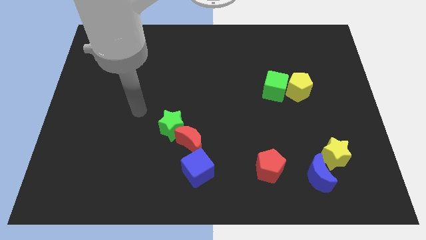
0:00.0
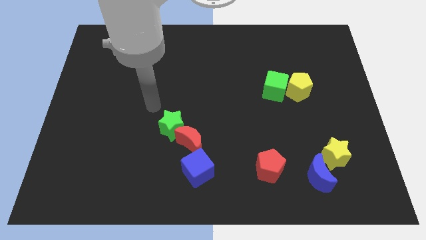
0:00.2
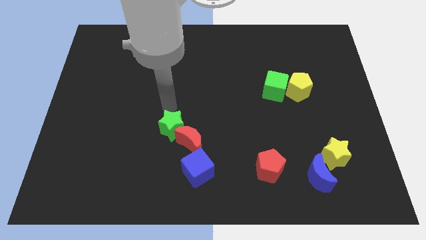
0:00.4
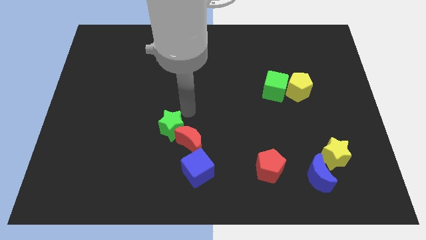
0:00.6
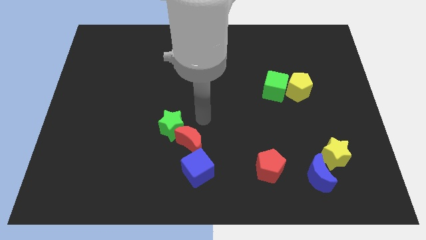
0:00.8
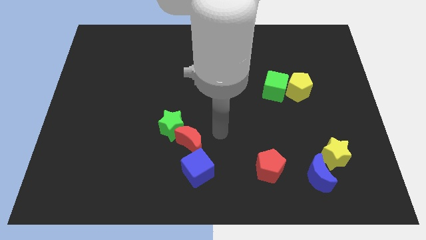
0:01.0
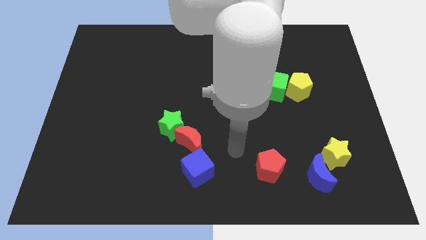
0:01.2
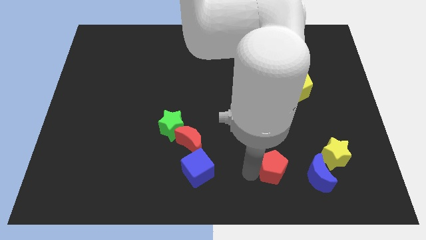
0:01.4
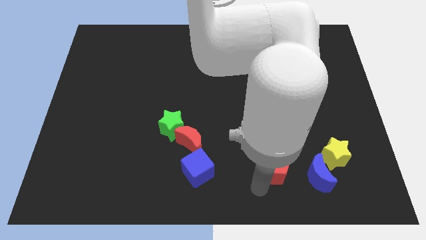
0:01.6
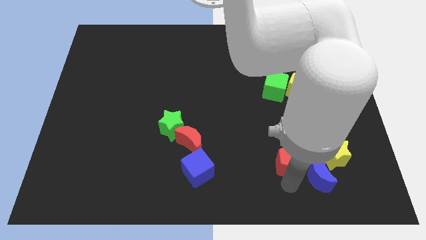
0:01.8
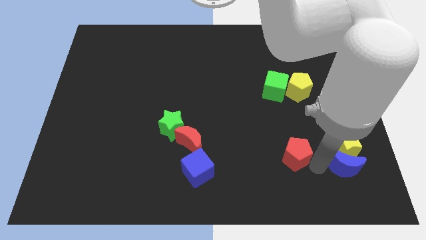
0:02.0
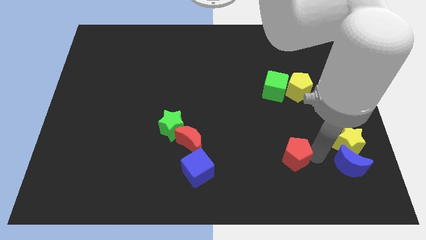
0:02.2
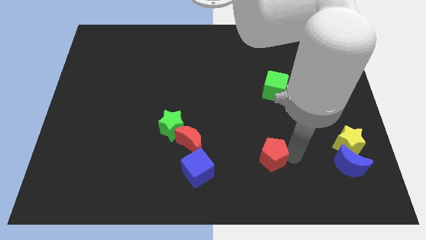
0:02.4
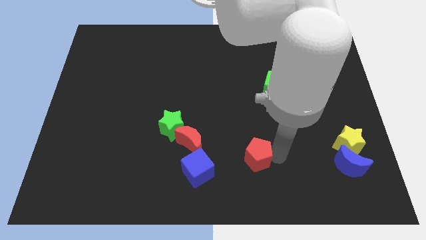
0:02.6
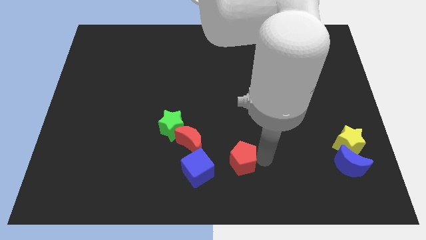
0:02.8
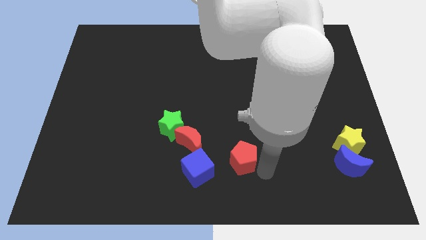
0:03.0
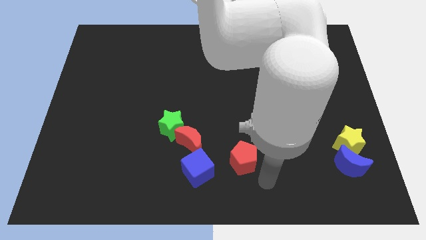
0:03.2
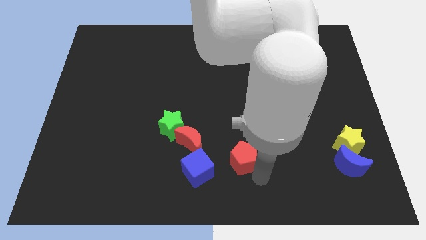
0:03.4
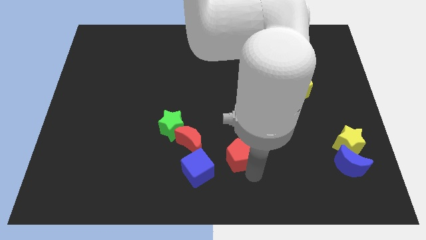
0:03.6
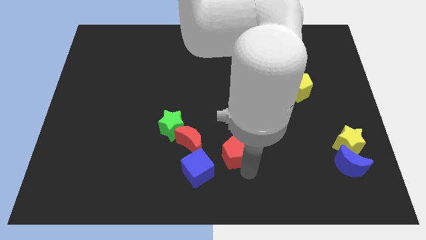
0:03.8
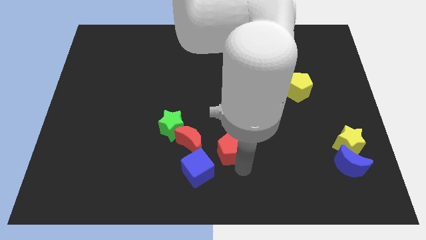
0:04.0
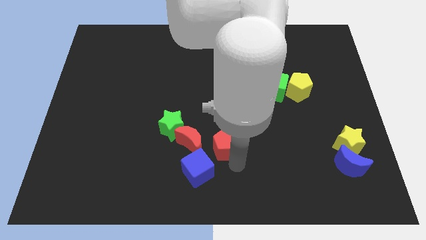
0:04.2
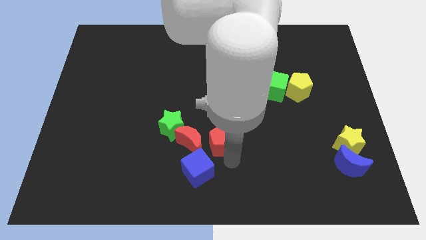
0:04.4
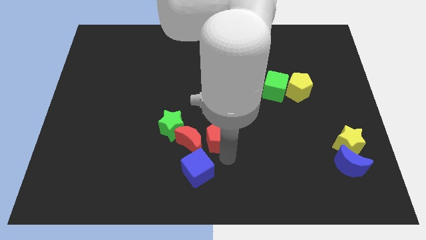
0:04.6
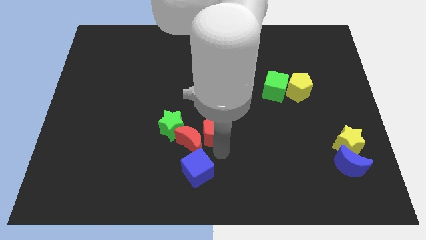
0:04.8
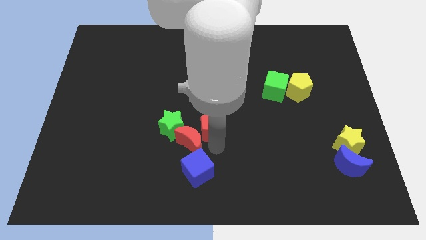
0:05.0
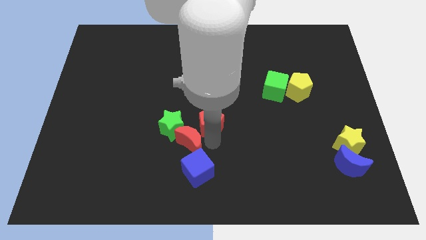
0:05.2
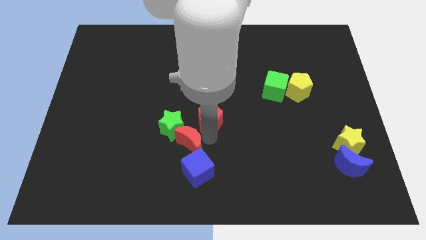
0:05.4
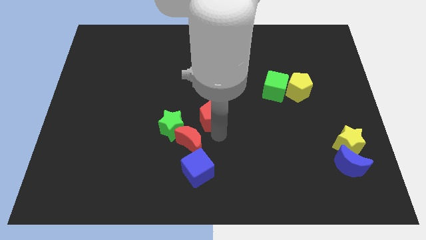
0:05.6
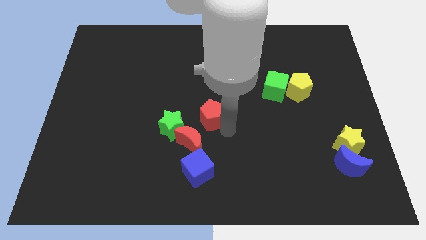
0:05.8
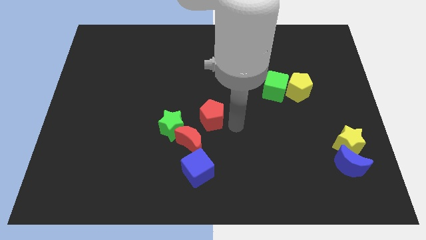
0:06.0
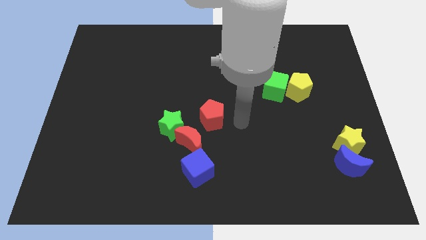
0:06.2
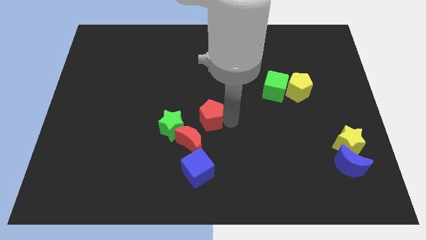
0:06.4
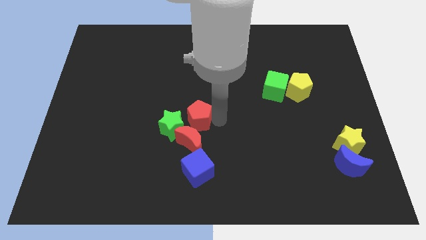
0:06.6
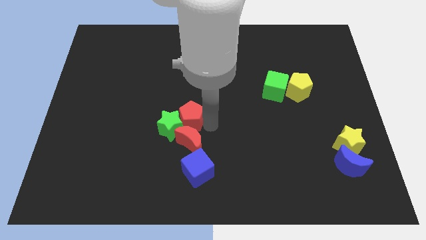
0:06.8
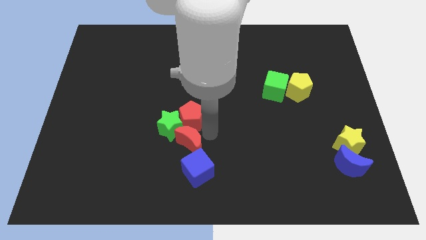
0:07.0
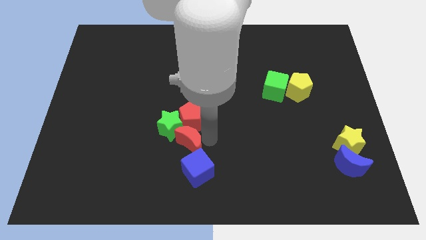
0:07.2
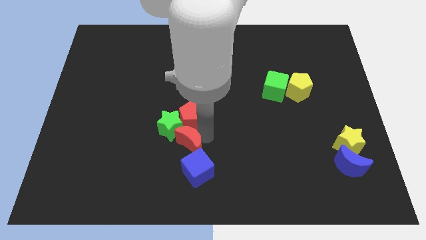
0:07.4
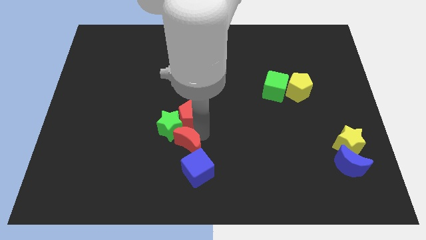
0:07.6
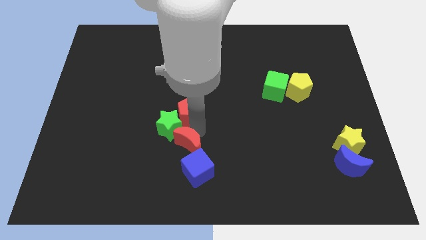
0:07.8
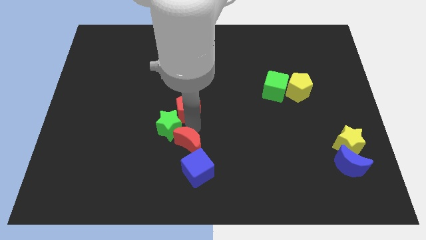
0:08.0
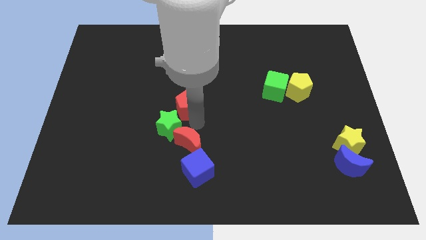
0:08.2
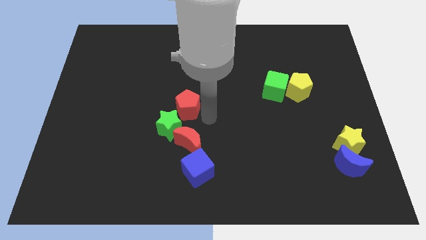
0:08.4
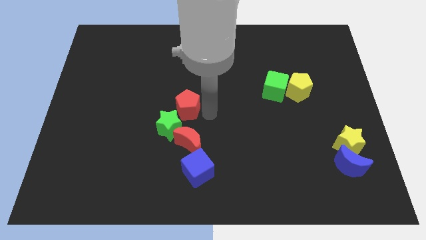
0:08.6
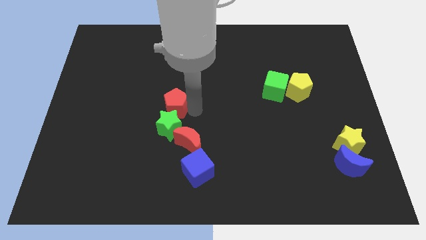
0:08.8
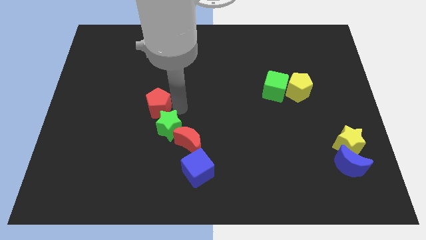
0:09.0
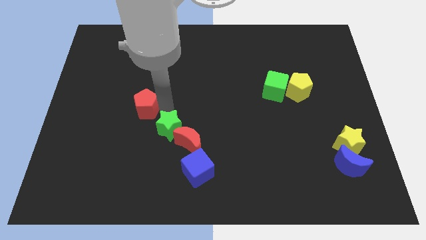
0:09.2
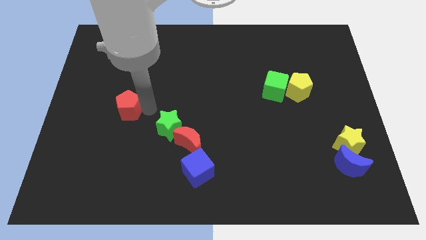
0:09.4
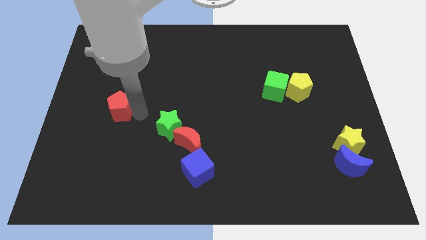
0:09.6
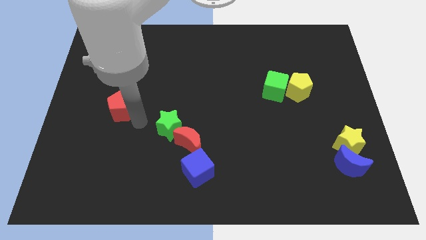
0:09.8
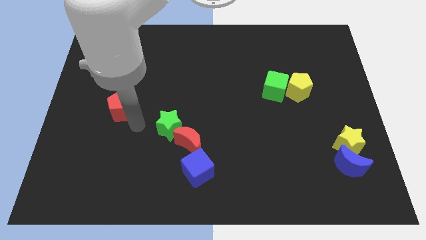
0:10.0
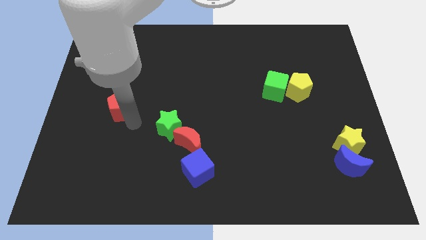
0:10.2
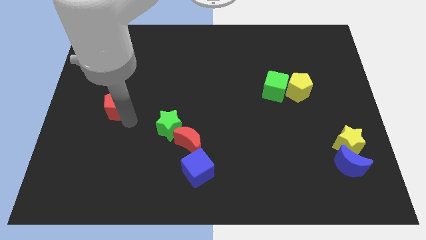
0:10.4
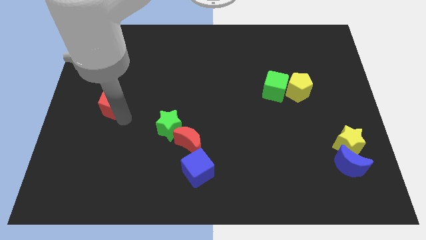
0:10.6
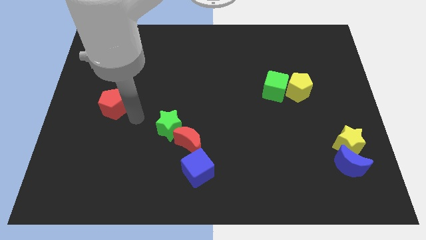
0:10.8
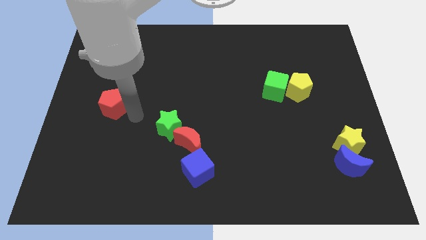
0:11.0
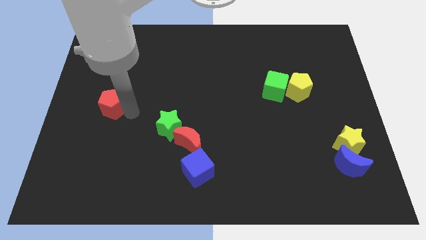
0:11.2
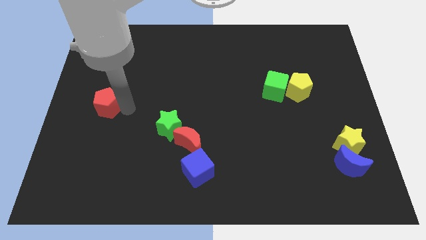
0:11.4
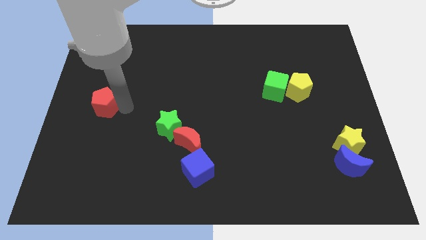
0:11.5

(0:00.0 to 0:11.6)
put the red pentagon to the left side

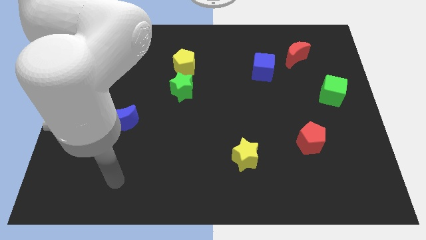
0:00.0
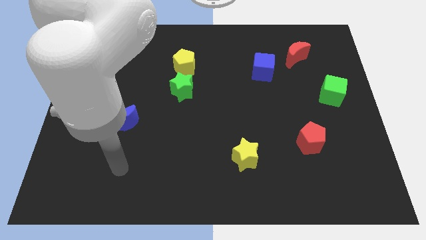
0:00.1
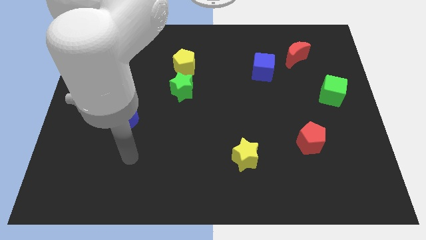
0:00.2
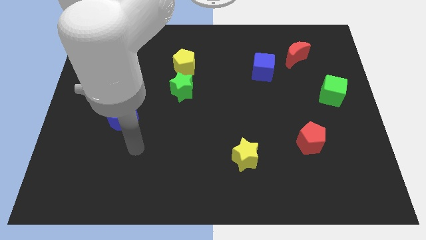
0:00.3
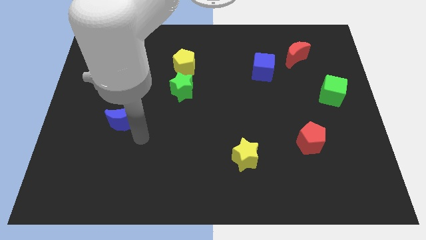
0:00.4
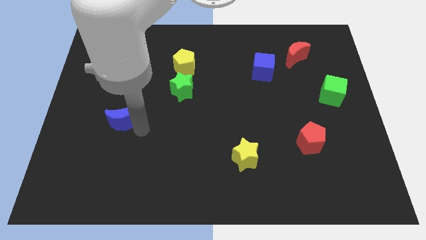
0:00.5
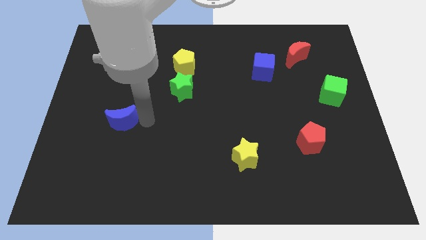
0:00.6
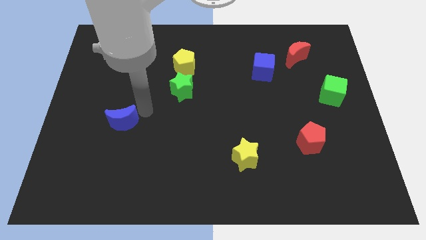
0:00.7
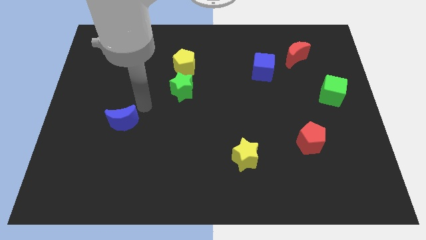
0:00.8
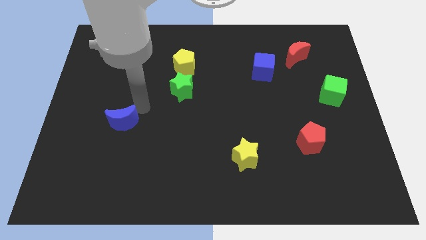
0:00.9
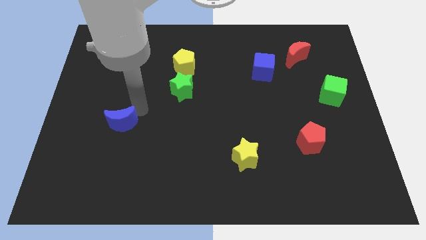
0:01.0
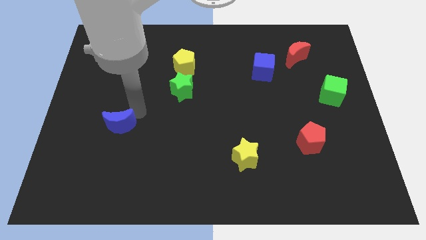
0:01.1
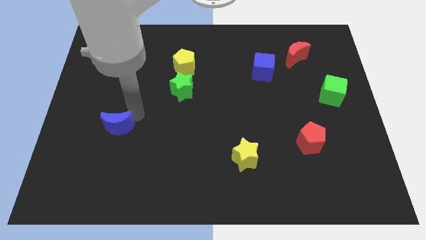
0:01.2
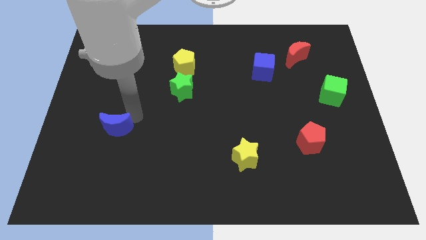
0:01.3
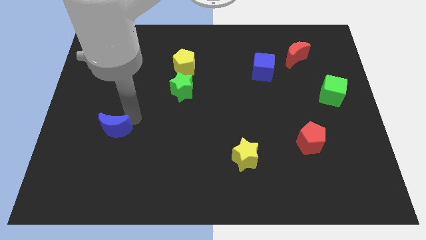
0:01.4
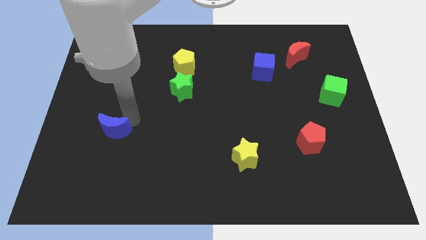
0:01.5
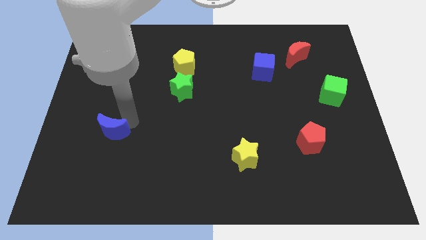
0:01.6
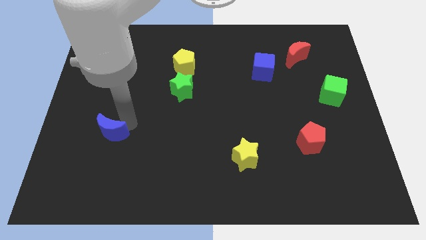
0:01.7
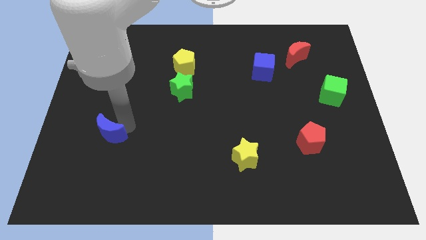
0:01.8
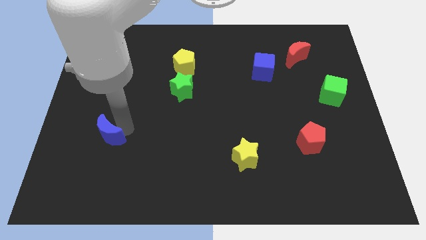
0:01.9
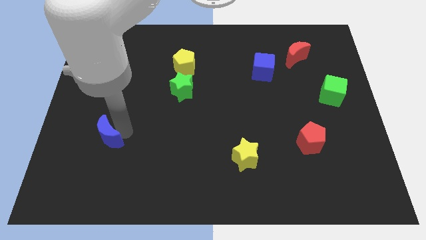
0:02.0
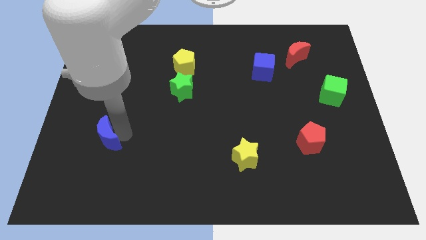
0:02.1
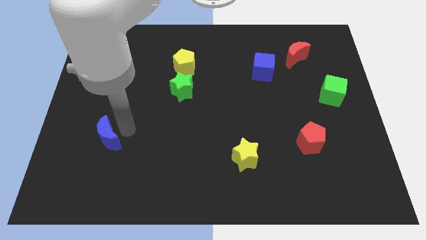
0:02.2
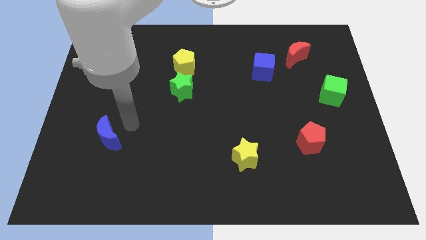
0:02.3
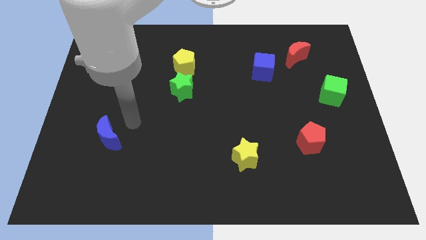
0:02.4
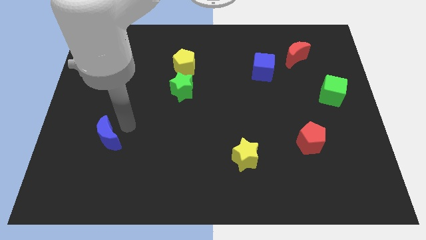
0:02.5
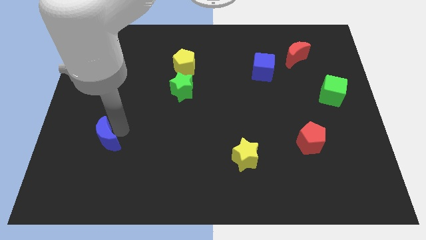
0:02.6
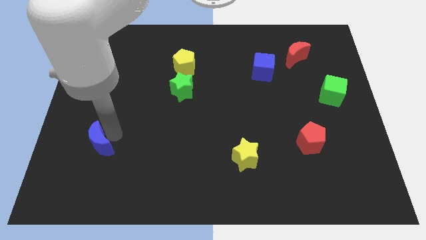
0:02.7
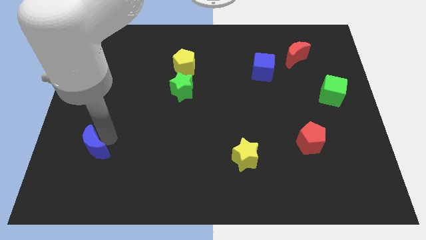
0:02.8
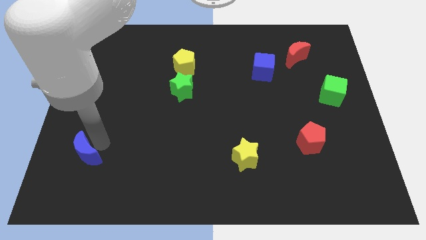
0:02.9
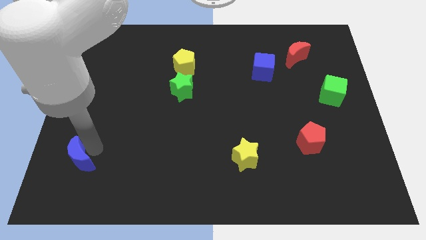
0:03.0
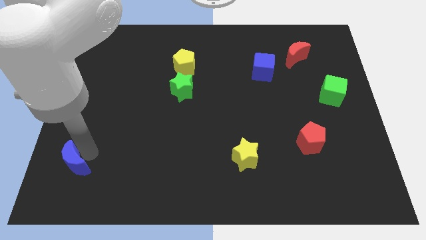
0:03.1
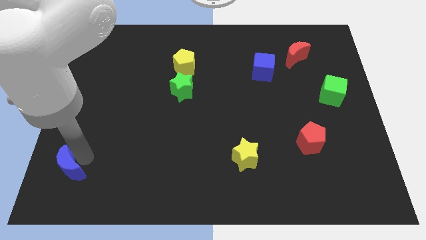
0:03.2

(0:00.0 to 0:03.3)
slide the blue moon to the bottom left of the board
